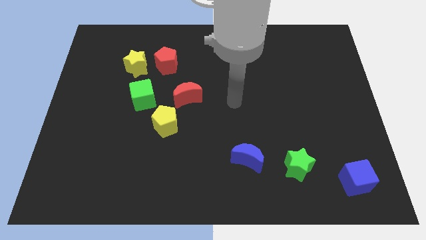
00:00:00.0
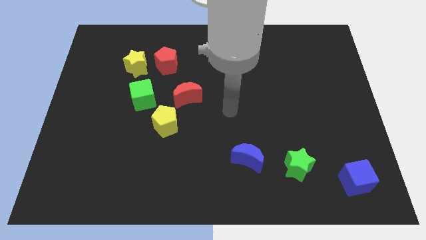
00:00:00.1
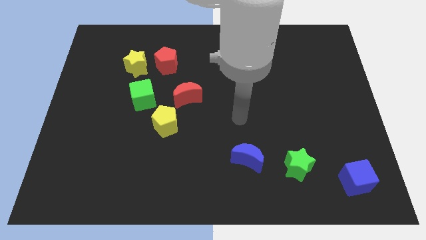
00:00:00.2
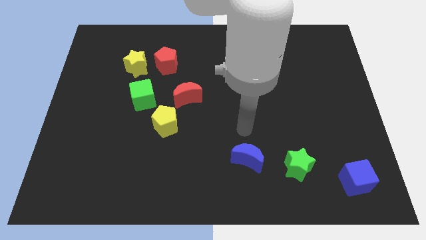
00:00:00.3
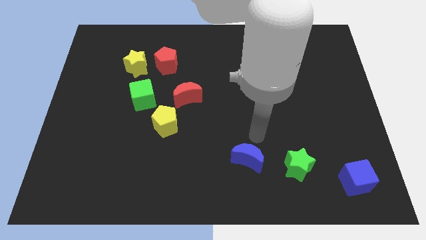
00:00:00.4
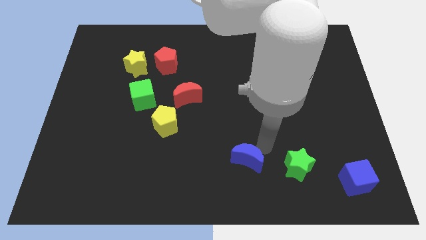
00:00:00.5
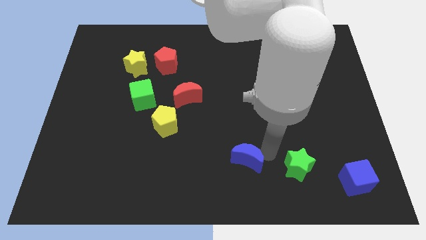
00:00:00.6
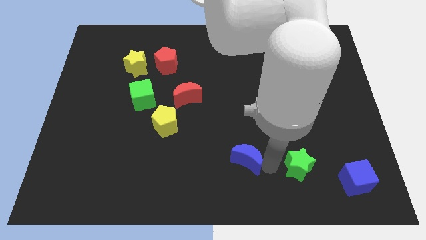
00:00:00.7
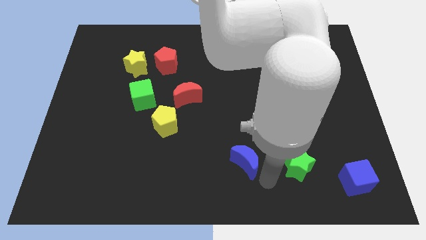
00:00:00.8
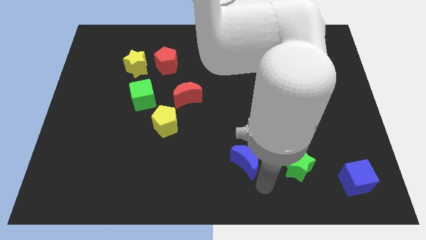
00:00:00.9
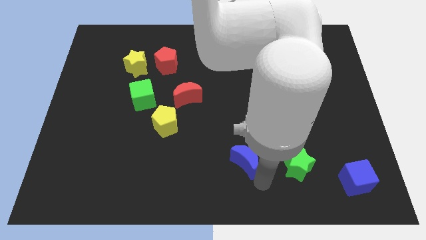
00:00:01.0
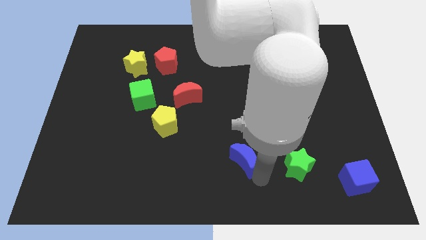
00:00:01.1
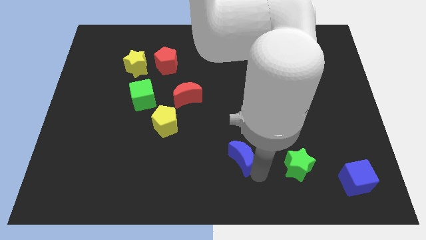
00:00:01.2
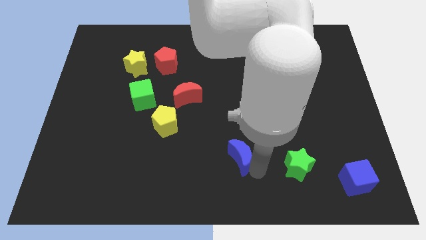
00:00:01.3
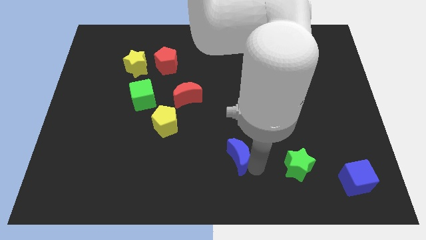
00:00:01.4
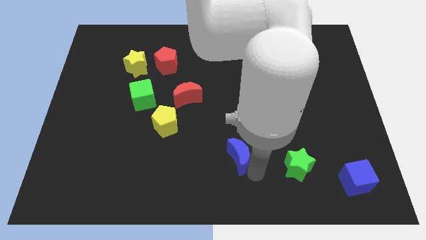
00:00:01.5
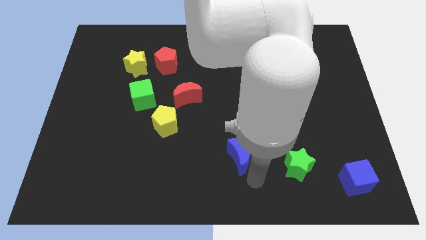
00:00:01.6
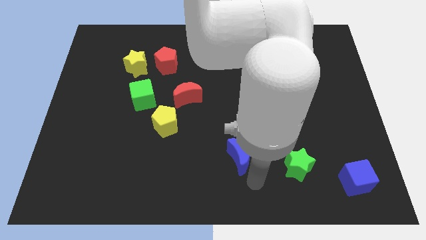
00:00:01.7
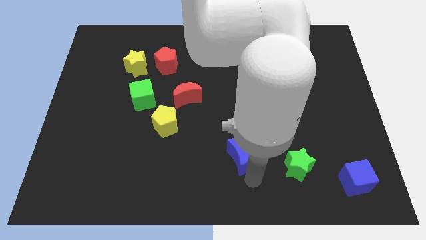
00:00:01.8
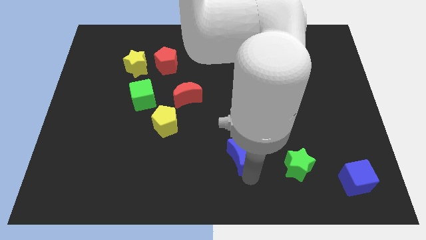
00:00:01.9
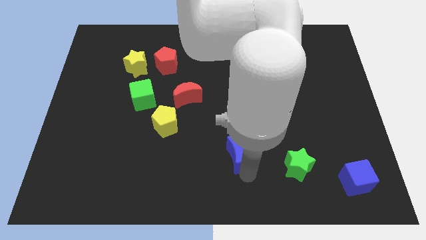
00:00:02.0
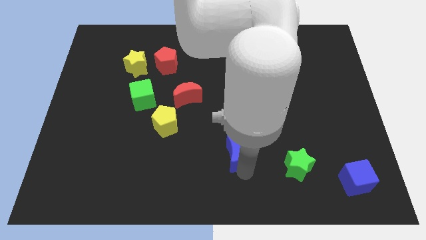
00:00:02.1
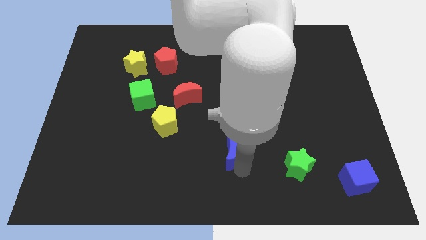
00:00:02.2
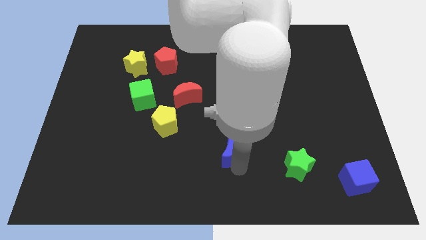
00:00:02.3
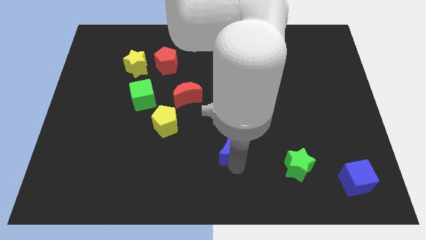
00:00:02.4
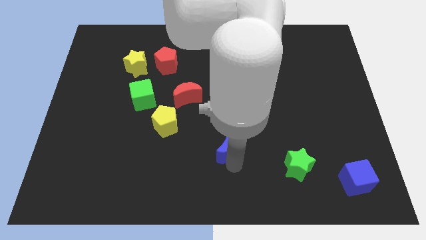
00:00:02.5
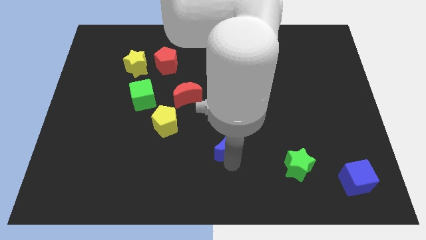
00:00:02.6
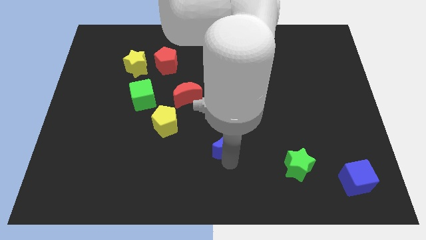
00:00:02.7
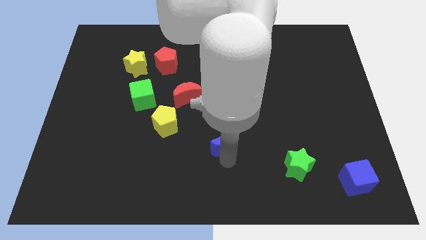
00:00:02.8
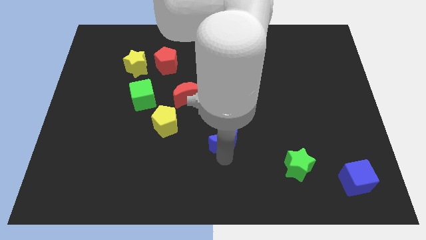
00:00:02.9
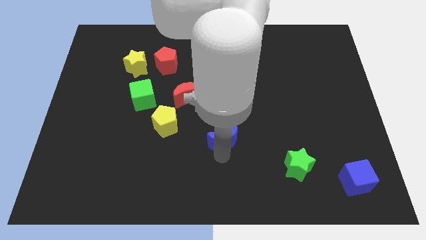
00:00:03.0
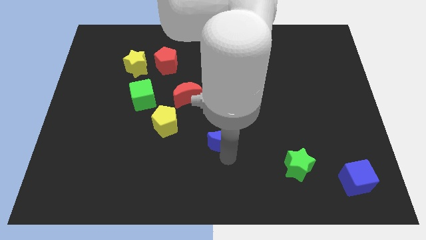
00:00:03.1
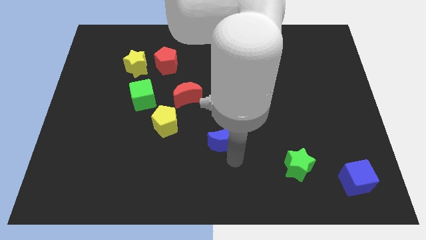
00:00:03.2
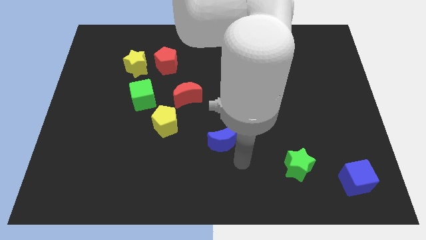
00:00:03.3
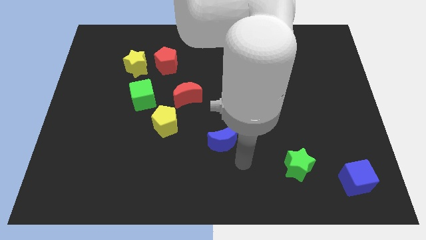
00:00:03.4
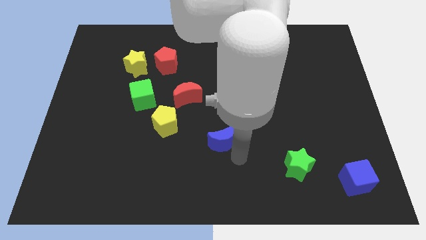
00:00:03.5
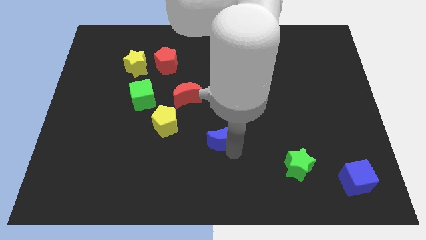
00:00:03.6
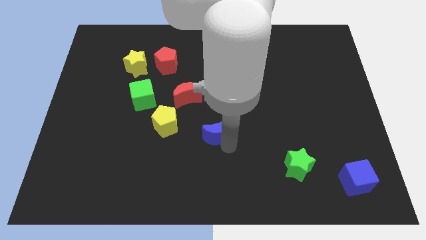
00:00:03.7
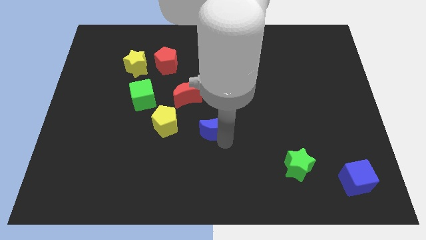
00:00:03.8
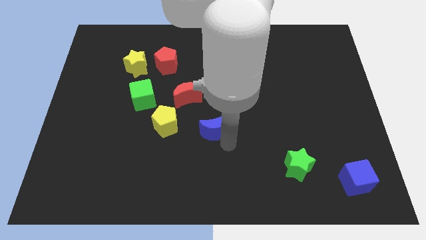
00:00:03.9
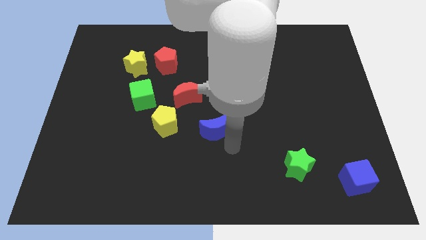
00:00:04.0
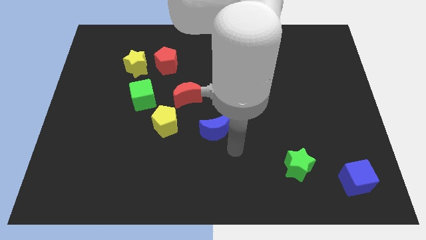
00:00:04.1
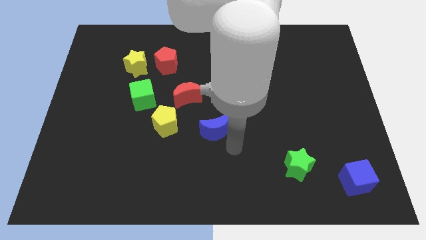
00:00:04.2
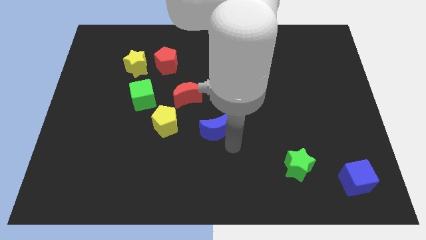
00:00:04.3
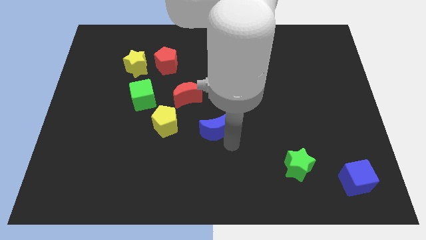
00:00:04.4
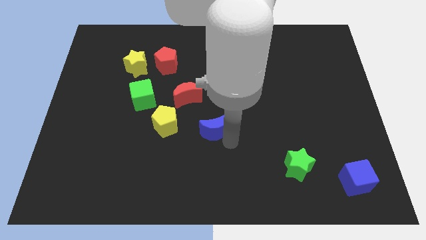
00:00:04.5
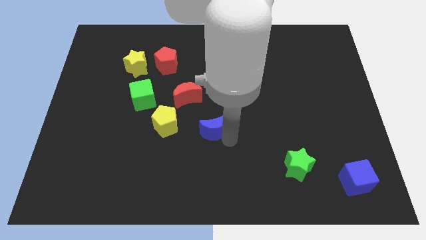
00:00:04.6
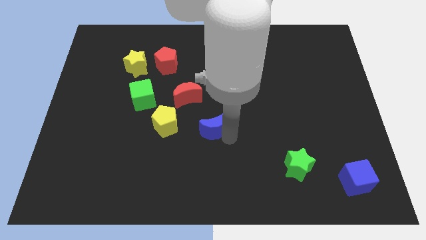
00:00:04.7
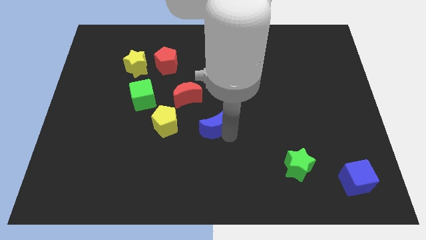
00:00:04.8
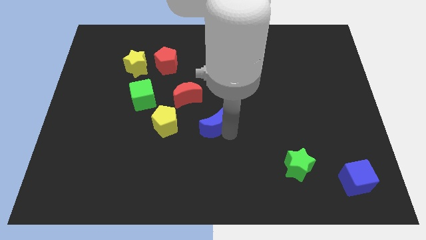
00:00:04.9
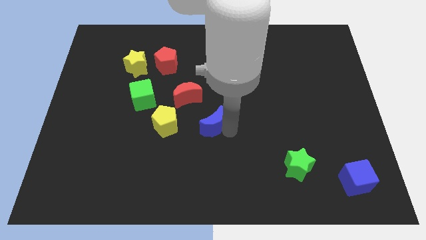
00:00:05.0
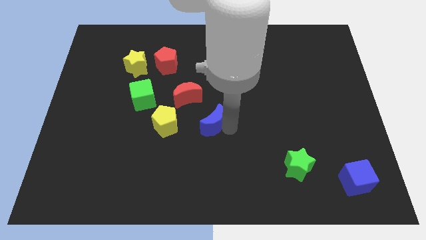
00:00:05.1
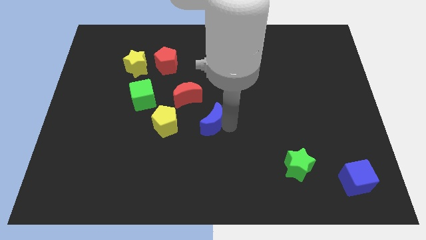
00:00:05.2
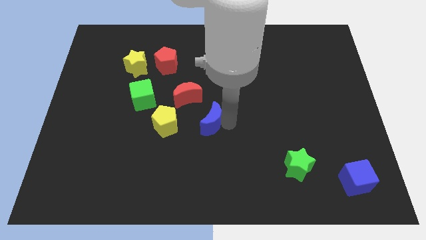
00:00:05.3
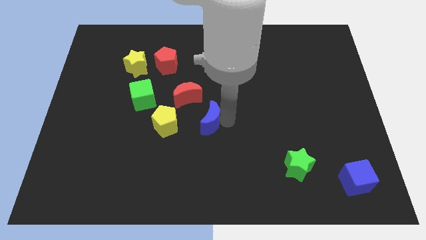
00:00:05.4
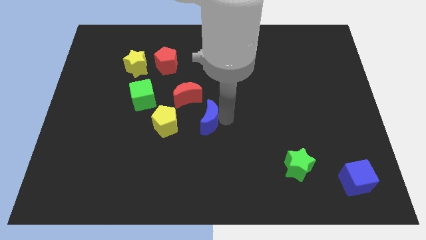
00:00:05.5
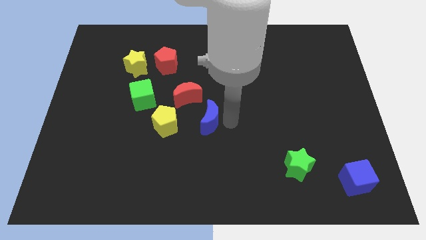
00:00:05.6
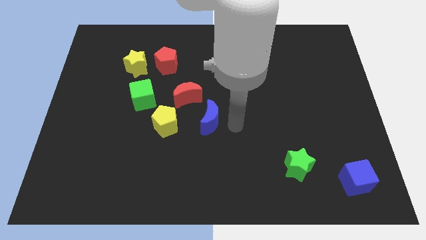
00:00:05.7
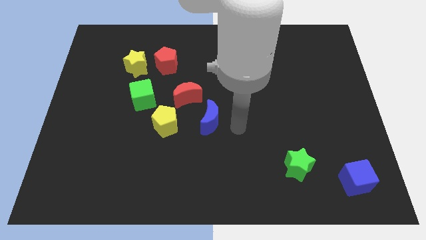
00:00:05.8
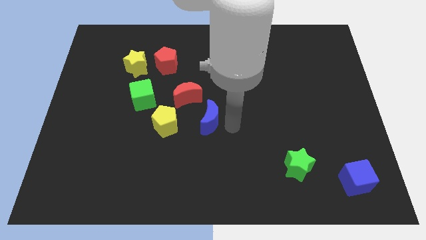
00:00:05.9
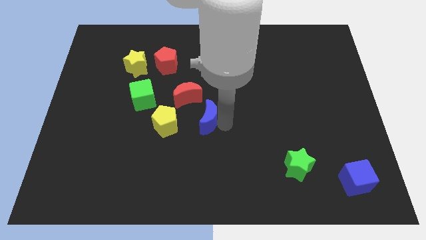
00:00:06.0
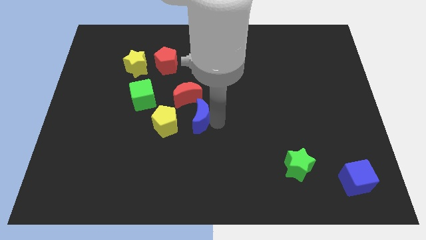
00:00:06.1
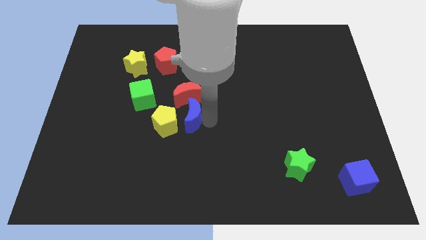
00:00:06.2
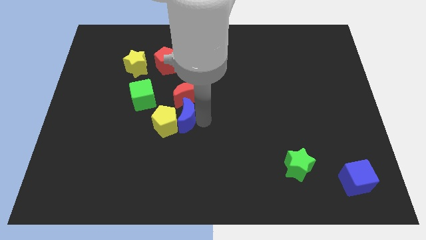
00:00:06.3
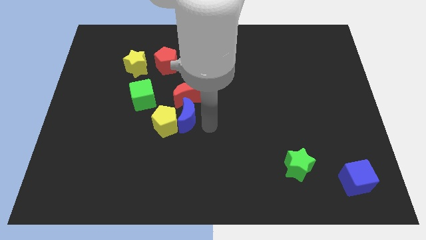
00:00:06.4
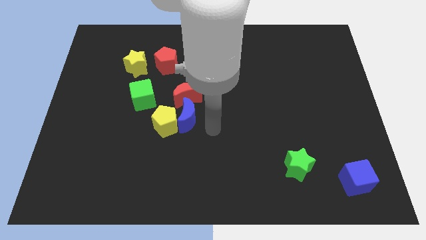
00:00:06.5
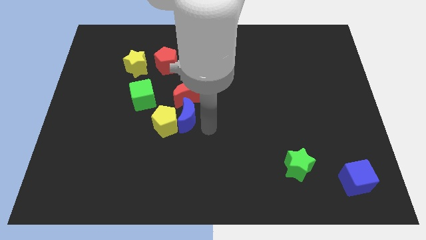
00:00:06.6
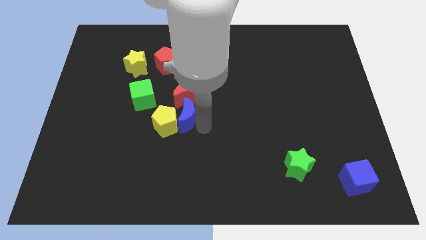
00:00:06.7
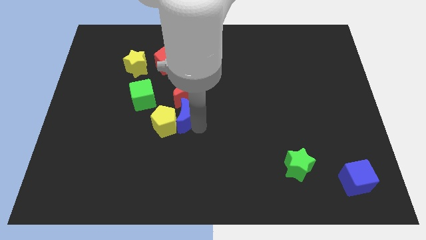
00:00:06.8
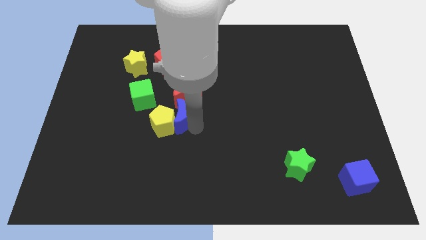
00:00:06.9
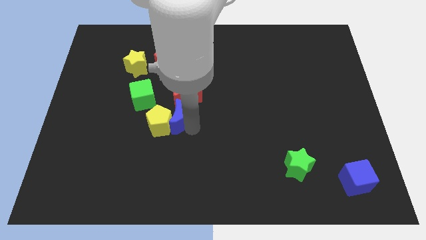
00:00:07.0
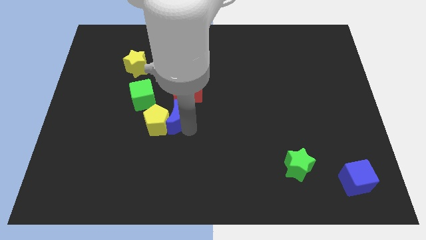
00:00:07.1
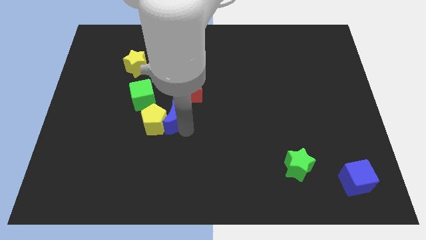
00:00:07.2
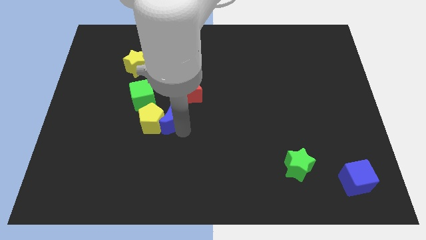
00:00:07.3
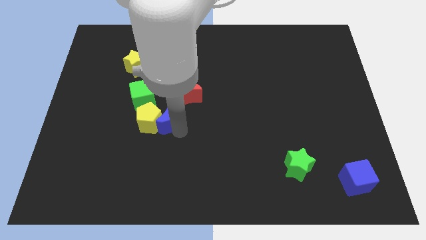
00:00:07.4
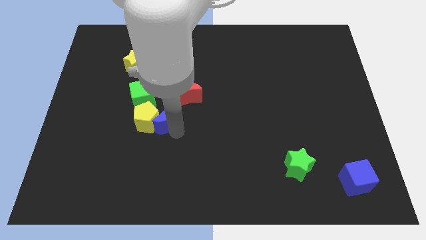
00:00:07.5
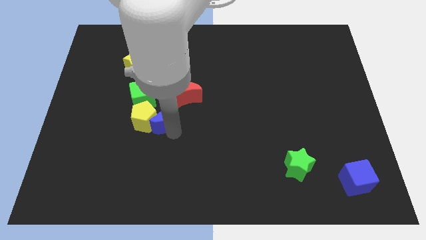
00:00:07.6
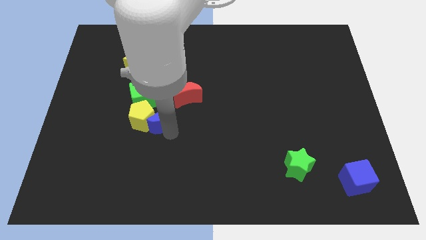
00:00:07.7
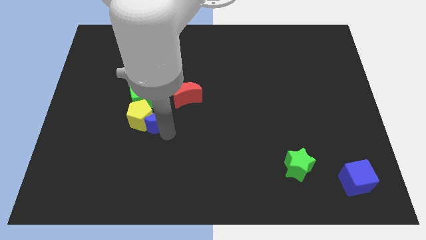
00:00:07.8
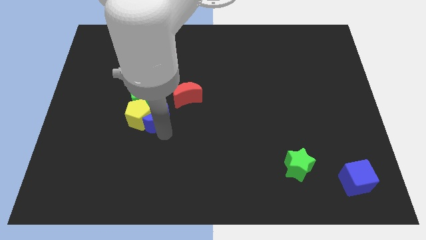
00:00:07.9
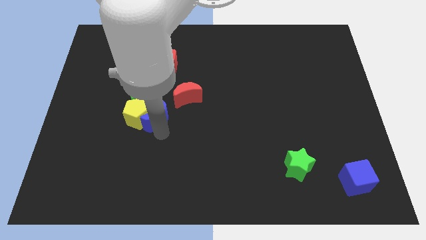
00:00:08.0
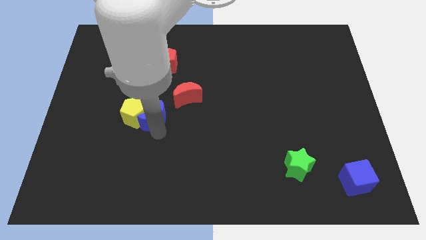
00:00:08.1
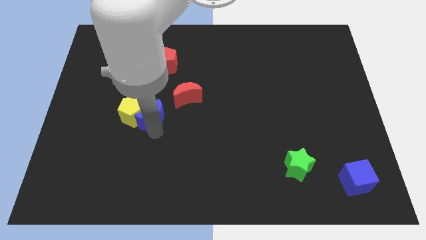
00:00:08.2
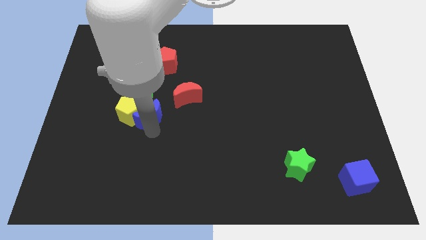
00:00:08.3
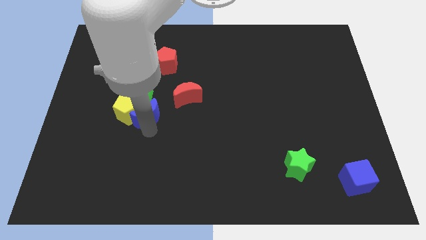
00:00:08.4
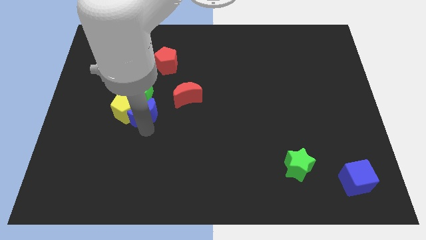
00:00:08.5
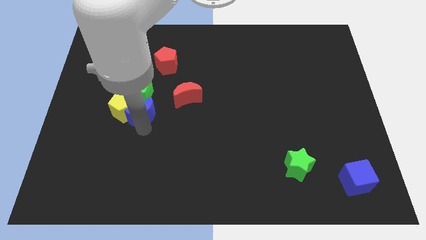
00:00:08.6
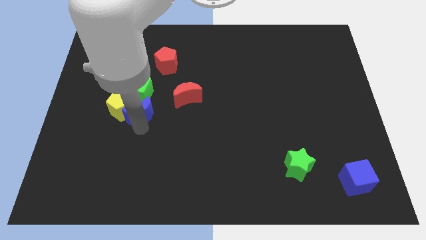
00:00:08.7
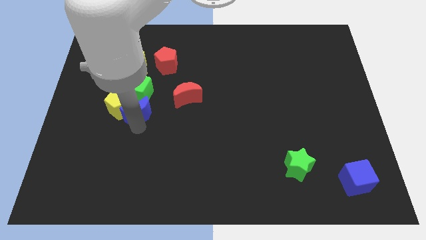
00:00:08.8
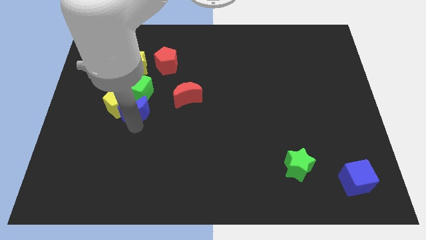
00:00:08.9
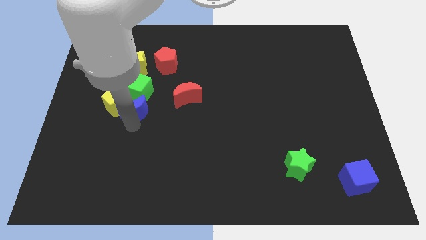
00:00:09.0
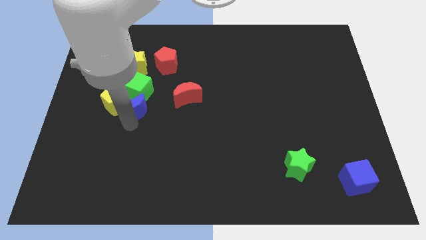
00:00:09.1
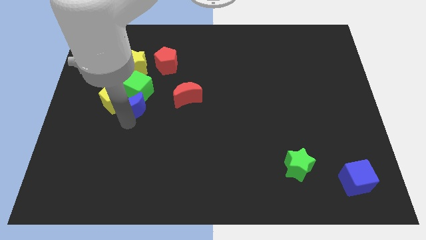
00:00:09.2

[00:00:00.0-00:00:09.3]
push the blue moon towards the green cube
